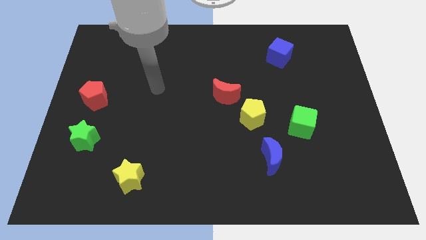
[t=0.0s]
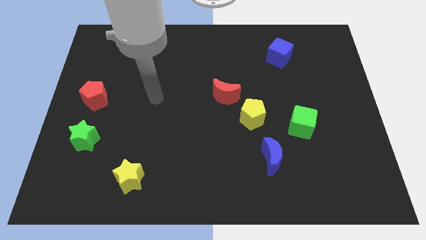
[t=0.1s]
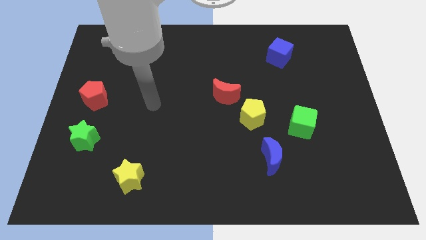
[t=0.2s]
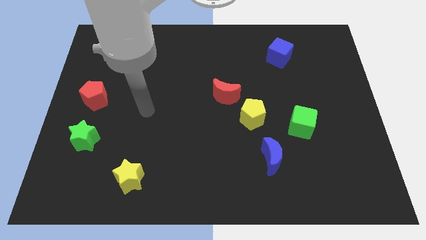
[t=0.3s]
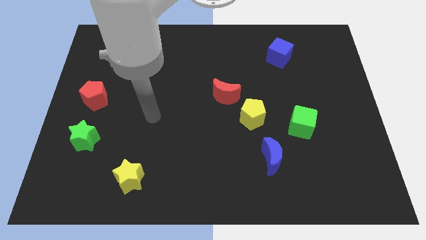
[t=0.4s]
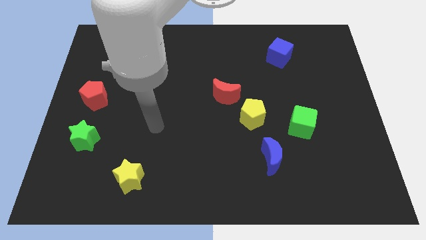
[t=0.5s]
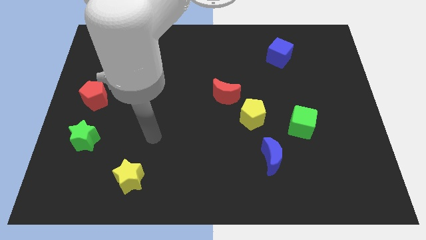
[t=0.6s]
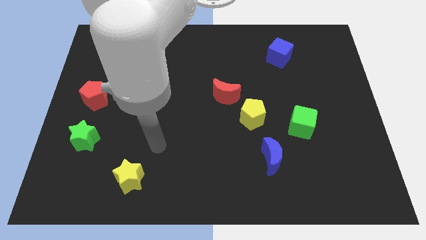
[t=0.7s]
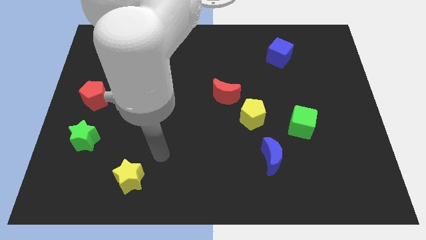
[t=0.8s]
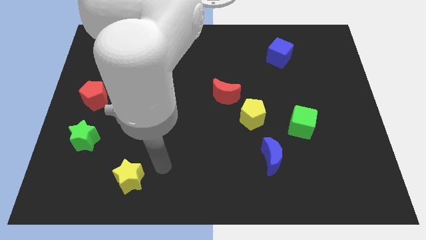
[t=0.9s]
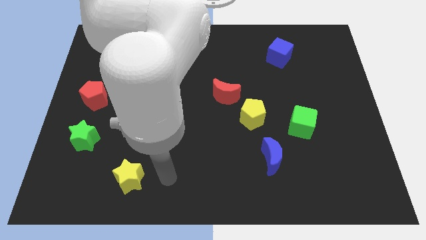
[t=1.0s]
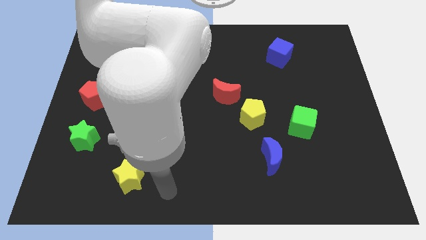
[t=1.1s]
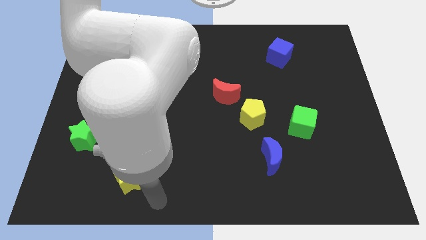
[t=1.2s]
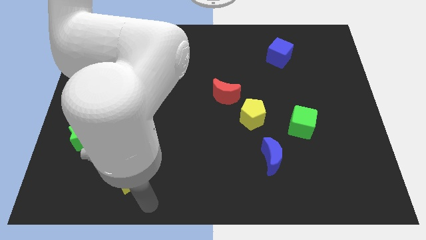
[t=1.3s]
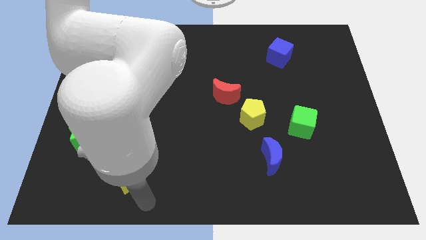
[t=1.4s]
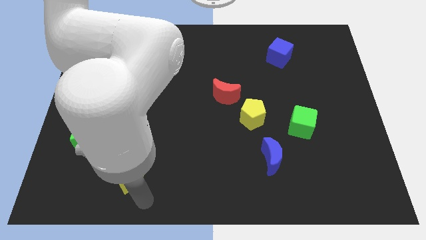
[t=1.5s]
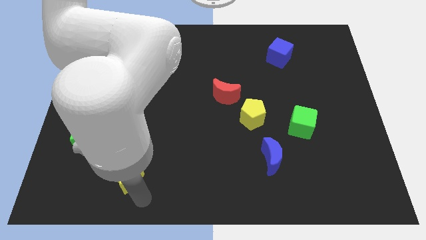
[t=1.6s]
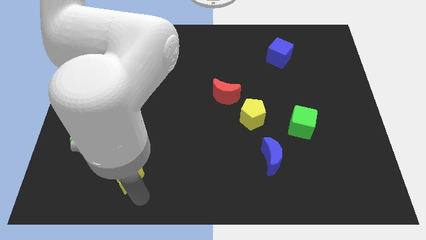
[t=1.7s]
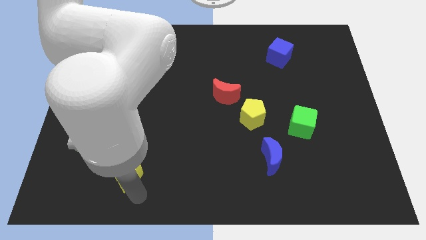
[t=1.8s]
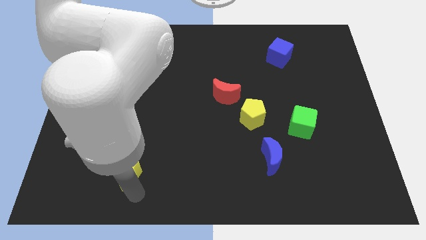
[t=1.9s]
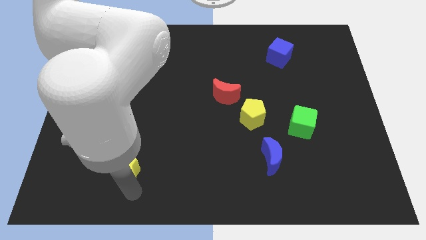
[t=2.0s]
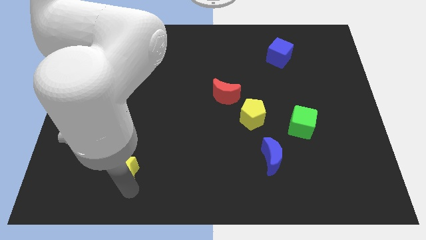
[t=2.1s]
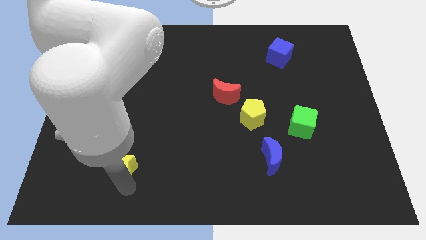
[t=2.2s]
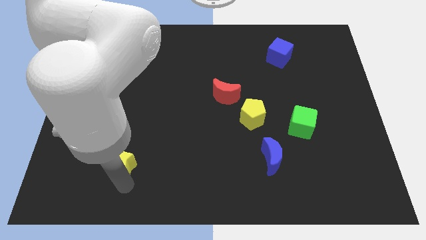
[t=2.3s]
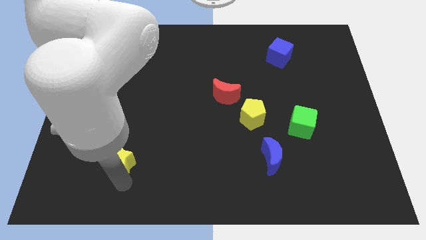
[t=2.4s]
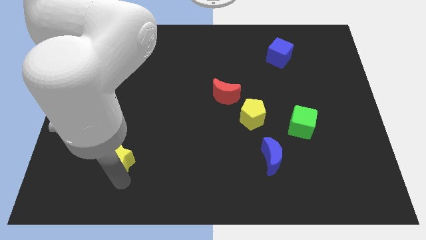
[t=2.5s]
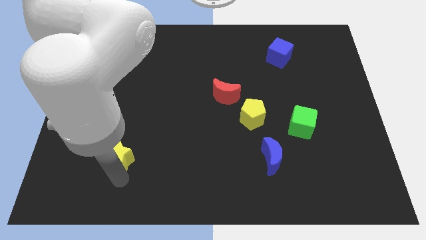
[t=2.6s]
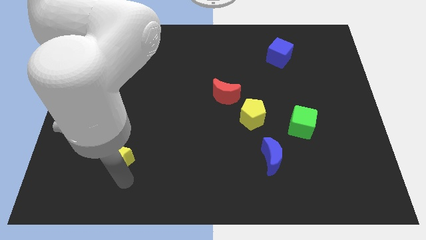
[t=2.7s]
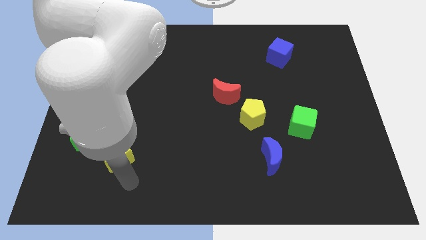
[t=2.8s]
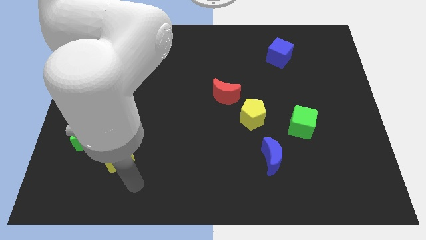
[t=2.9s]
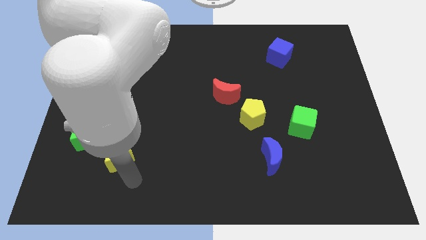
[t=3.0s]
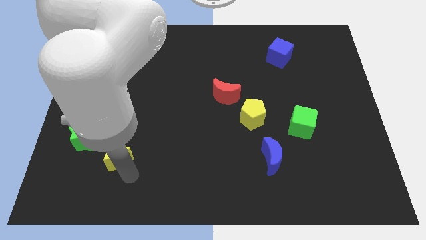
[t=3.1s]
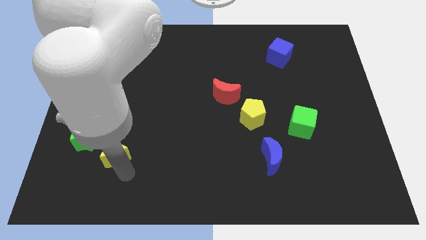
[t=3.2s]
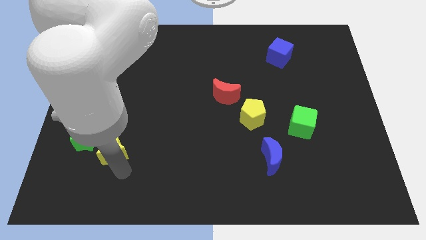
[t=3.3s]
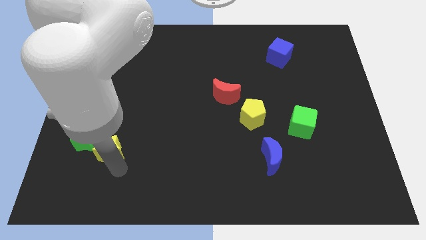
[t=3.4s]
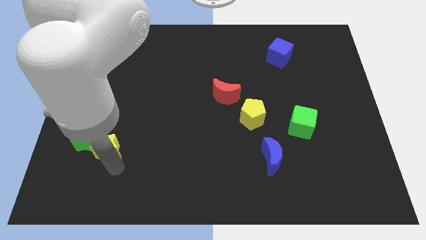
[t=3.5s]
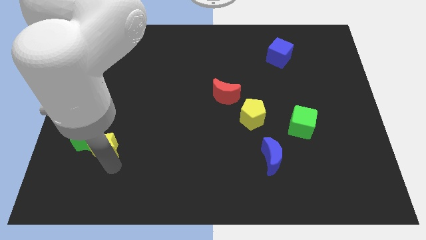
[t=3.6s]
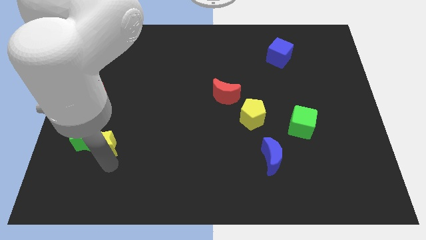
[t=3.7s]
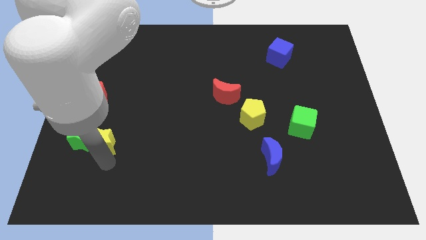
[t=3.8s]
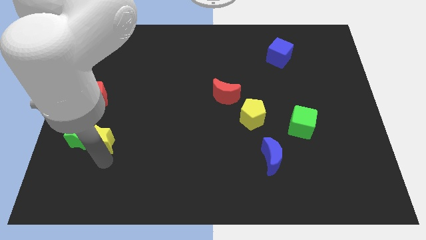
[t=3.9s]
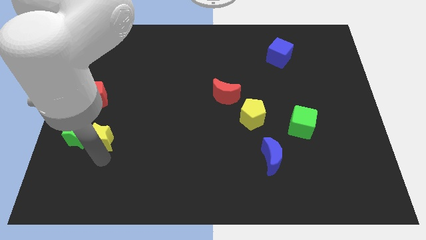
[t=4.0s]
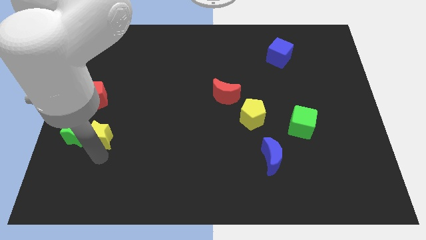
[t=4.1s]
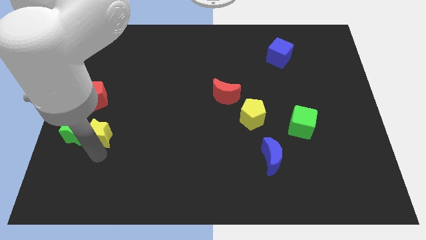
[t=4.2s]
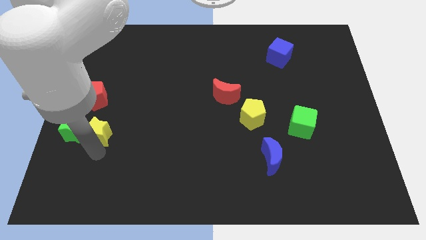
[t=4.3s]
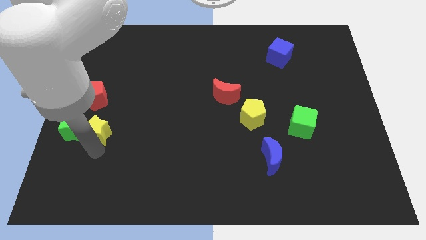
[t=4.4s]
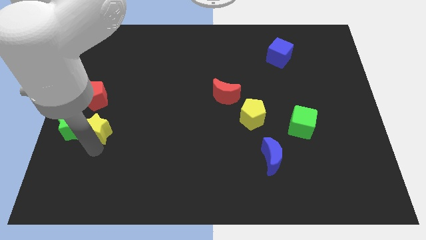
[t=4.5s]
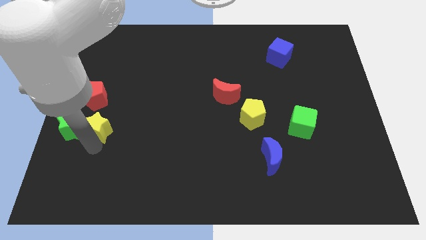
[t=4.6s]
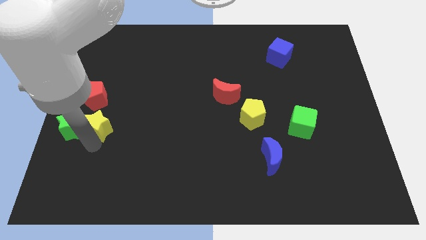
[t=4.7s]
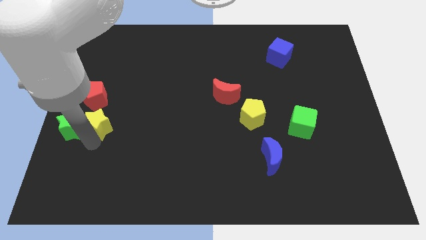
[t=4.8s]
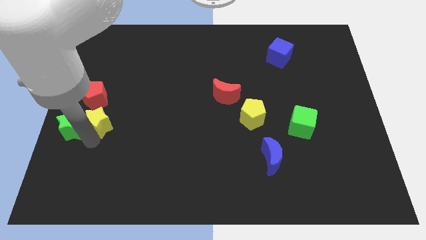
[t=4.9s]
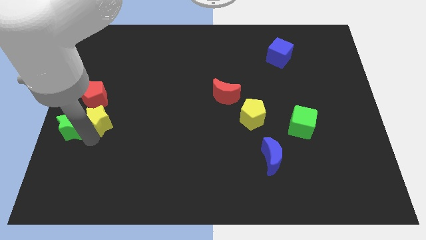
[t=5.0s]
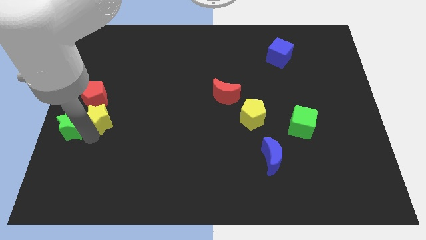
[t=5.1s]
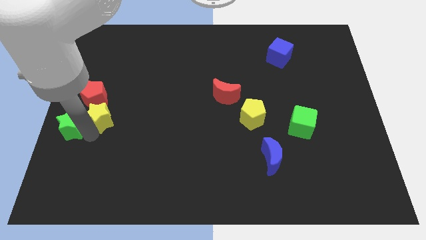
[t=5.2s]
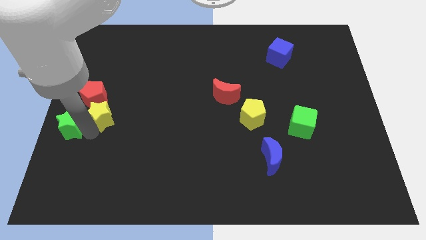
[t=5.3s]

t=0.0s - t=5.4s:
slide the yellow star next to the red pentagon

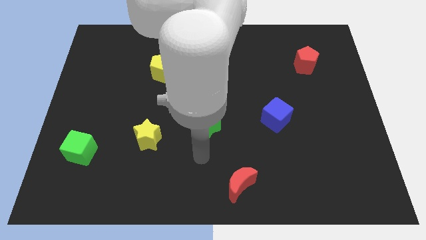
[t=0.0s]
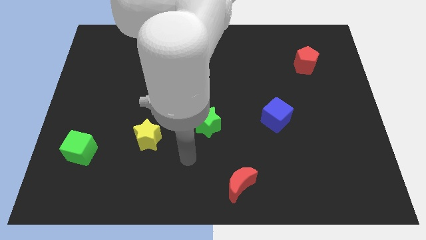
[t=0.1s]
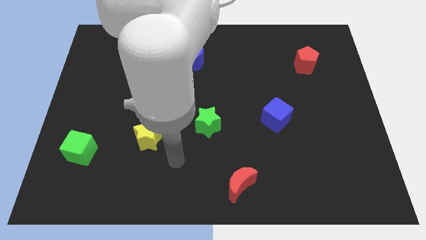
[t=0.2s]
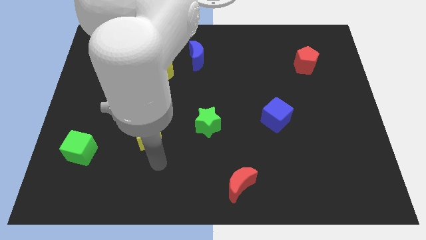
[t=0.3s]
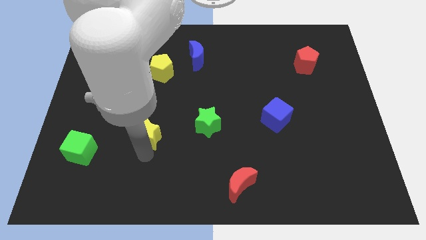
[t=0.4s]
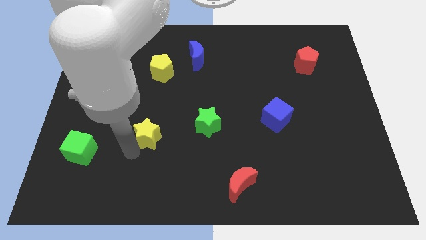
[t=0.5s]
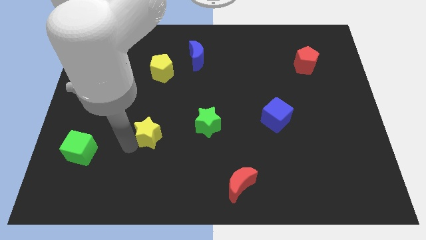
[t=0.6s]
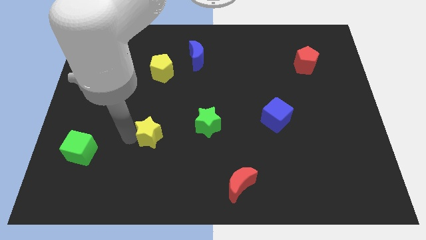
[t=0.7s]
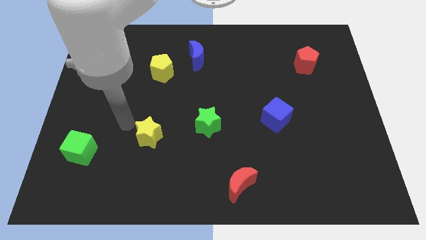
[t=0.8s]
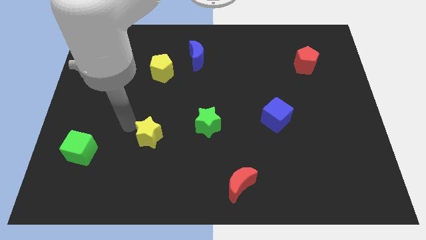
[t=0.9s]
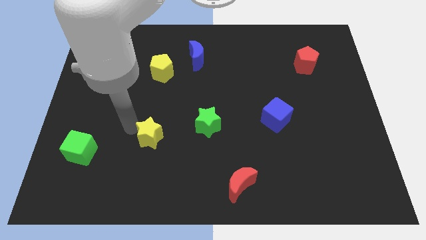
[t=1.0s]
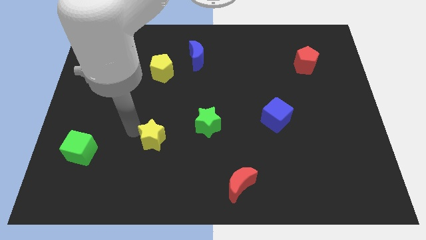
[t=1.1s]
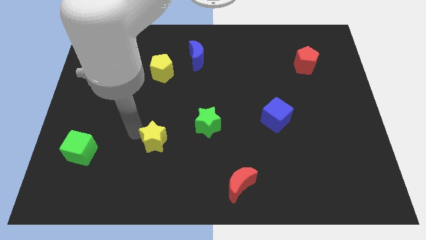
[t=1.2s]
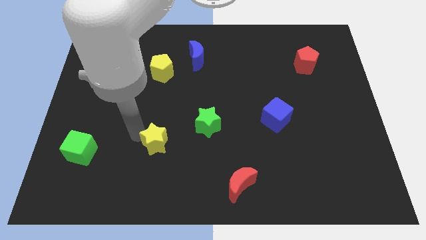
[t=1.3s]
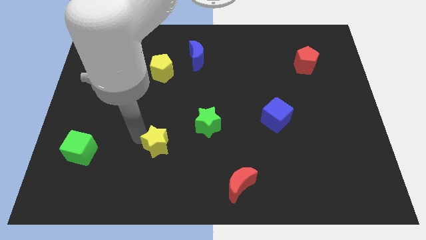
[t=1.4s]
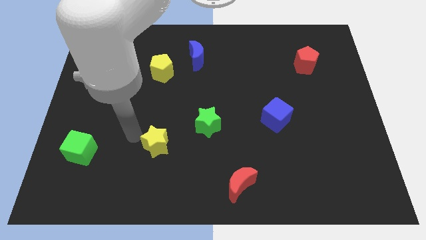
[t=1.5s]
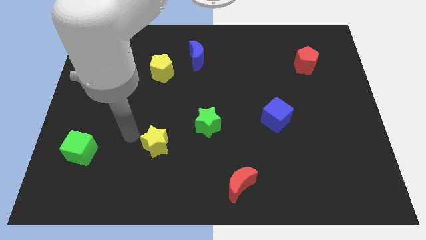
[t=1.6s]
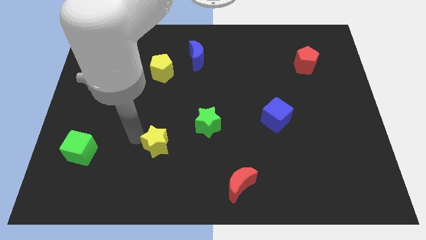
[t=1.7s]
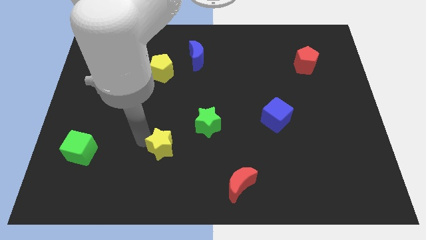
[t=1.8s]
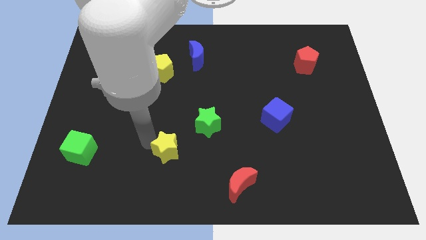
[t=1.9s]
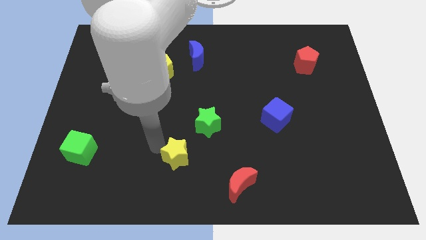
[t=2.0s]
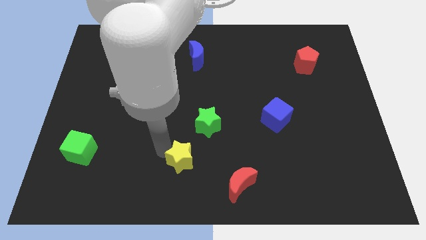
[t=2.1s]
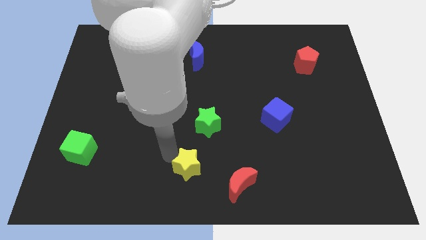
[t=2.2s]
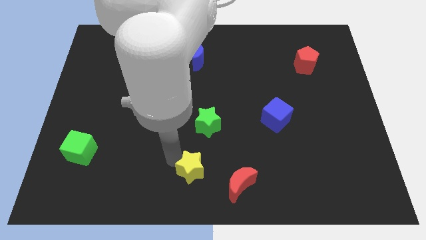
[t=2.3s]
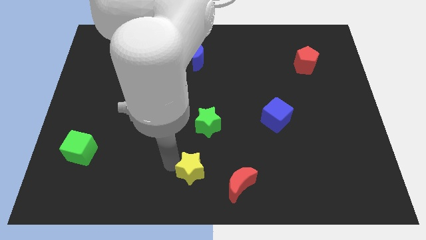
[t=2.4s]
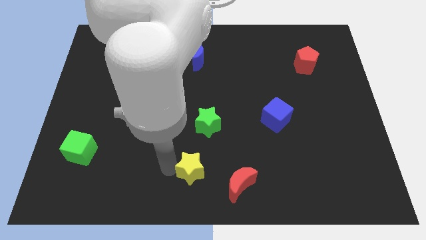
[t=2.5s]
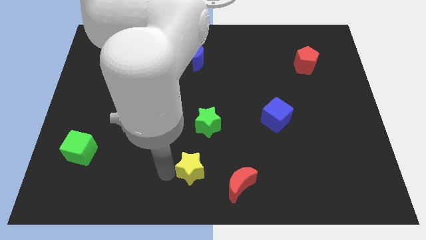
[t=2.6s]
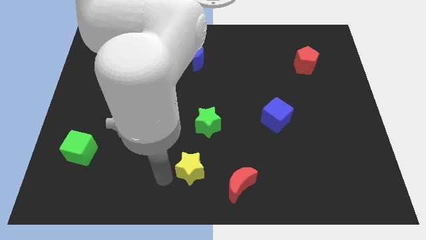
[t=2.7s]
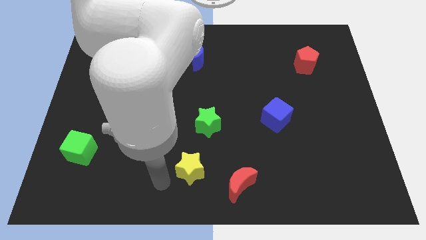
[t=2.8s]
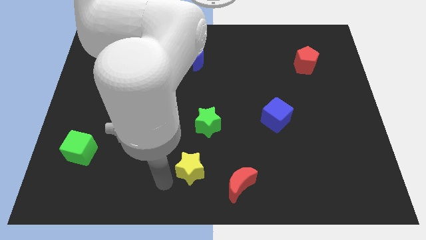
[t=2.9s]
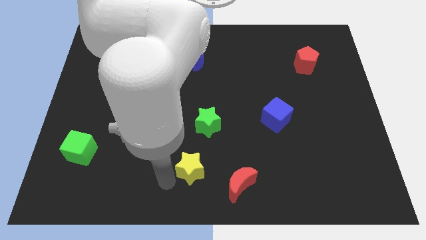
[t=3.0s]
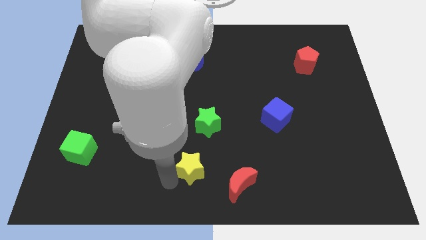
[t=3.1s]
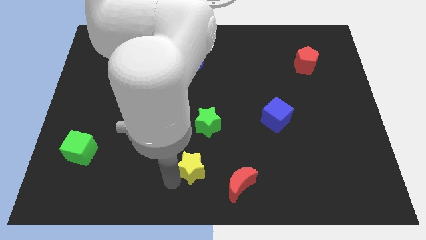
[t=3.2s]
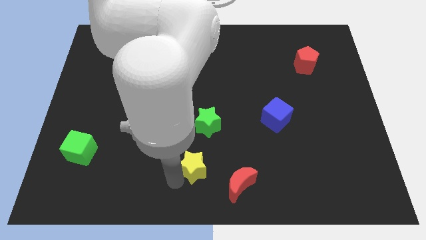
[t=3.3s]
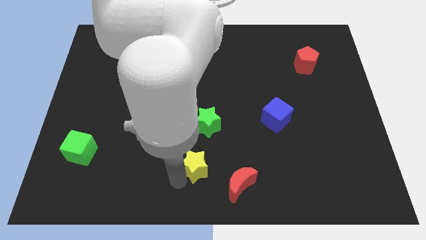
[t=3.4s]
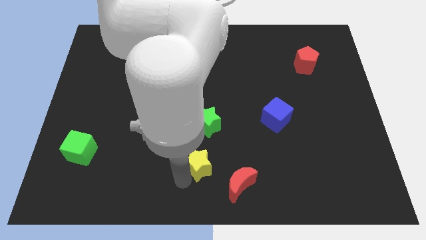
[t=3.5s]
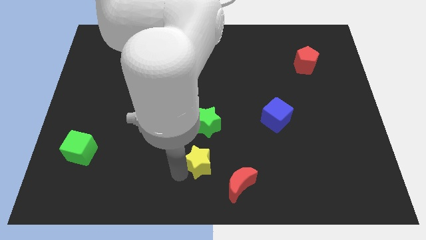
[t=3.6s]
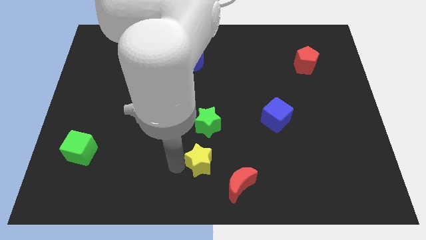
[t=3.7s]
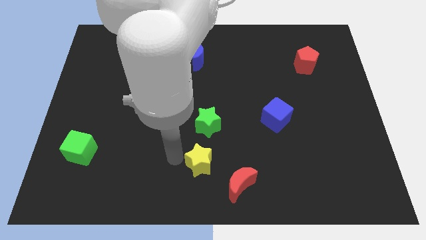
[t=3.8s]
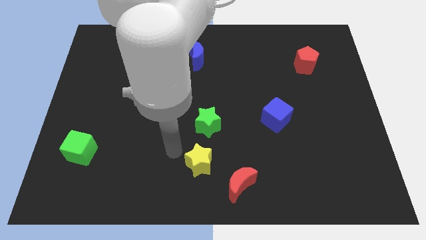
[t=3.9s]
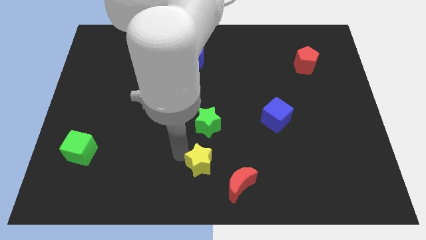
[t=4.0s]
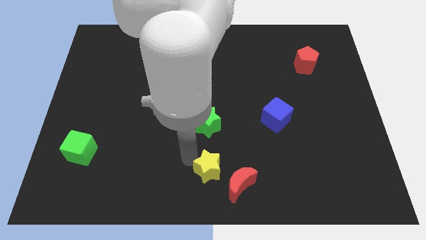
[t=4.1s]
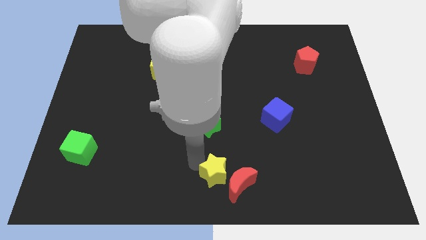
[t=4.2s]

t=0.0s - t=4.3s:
slide the yellow star close to the red moon
